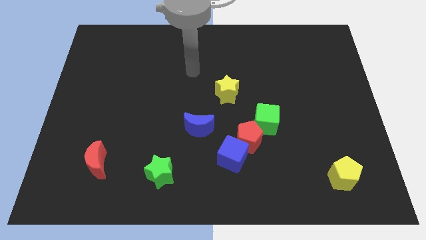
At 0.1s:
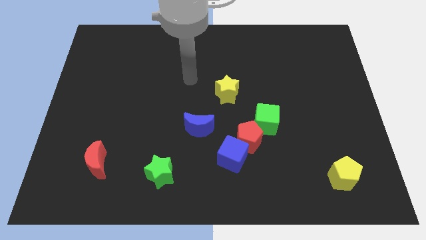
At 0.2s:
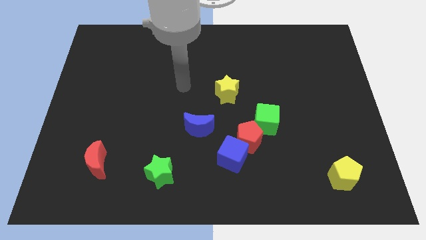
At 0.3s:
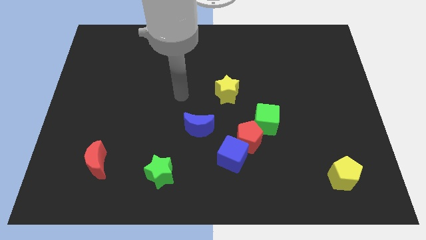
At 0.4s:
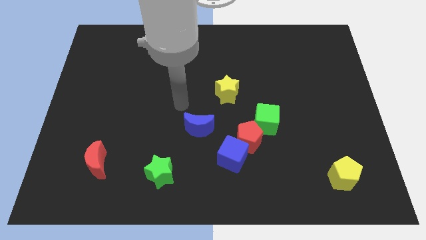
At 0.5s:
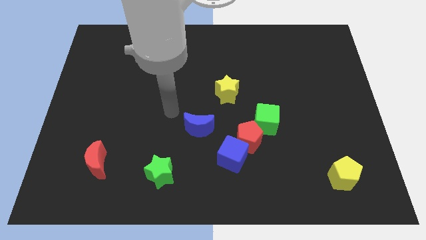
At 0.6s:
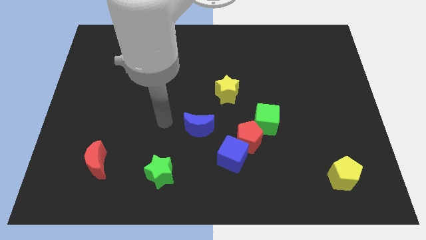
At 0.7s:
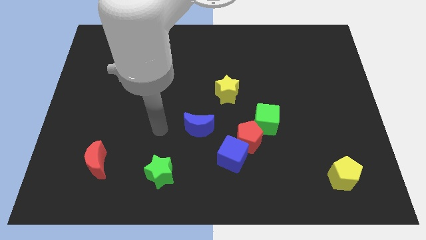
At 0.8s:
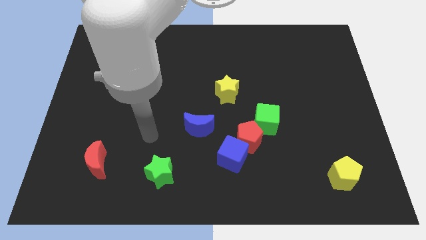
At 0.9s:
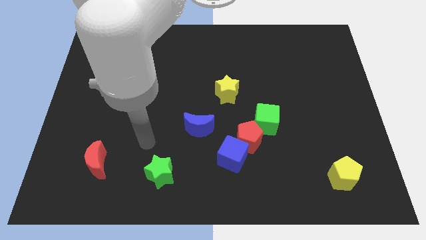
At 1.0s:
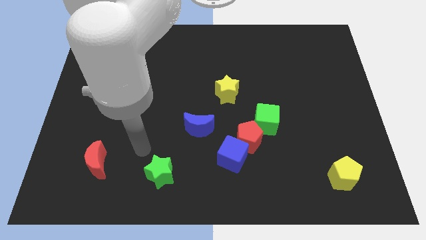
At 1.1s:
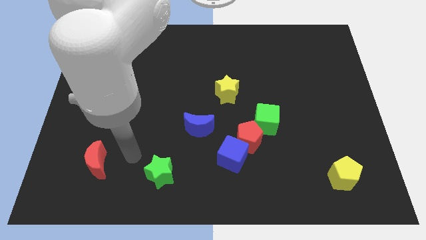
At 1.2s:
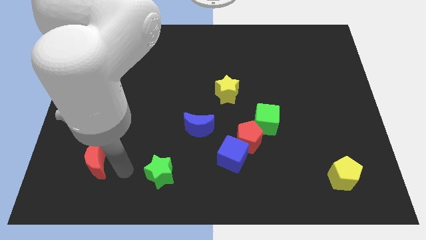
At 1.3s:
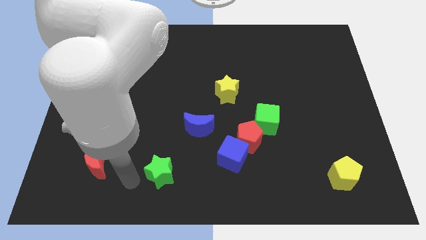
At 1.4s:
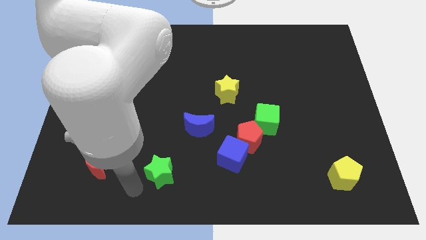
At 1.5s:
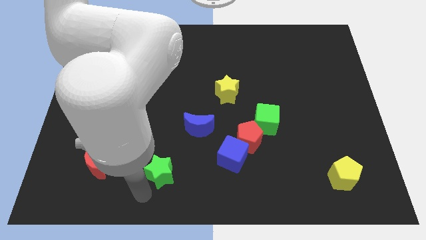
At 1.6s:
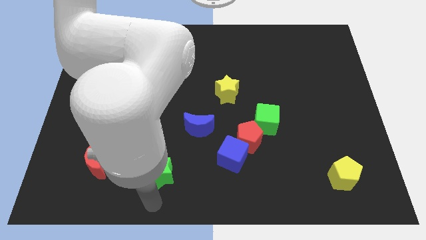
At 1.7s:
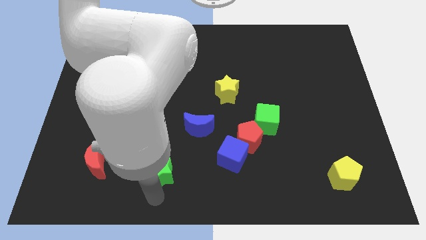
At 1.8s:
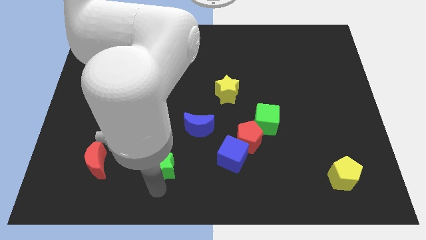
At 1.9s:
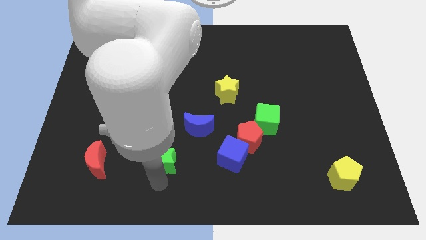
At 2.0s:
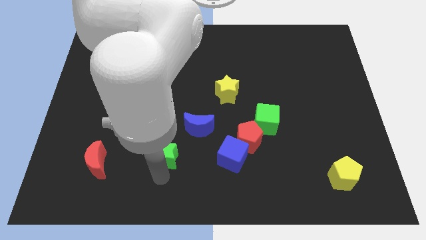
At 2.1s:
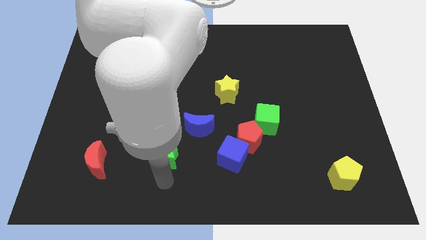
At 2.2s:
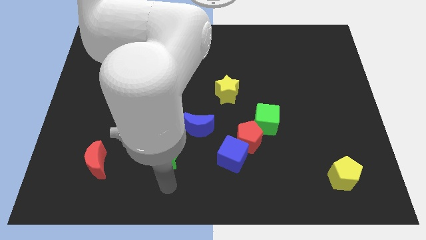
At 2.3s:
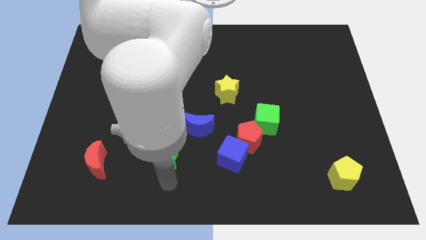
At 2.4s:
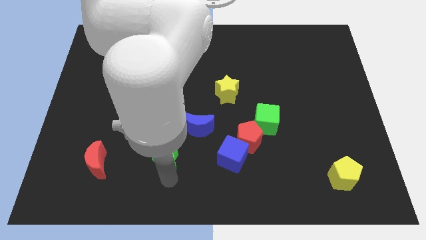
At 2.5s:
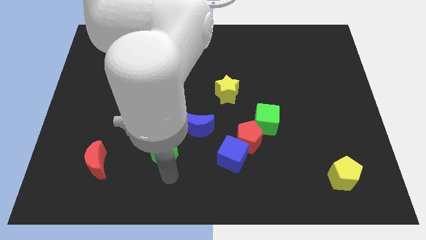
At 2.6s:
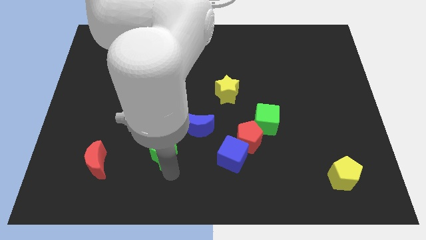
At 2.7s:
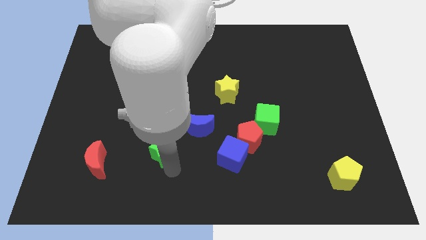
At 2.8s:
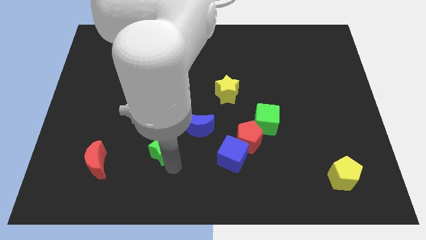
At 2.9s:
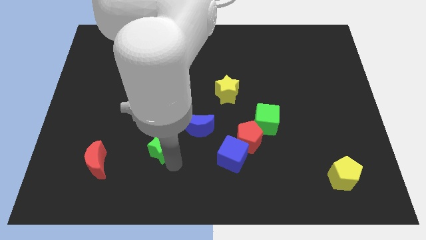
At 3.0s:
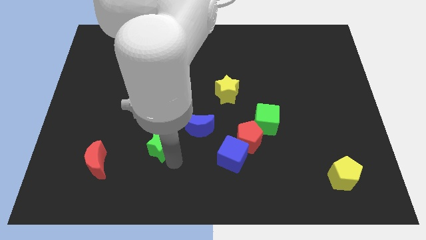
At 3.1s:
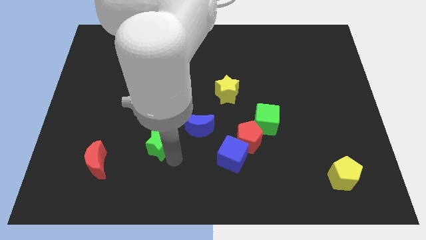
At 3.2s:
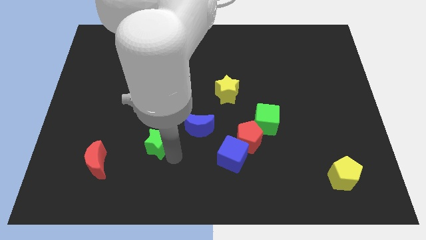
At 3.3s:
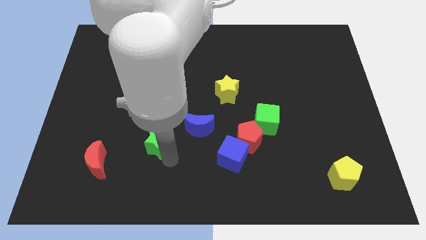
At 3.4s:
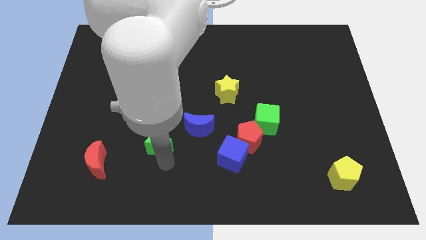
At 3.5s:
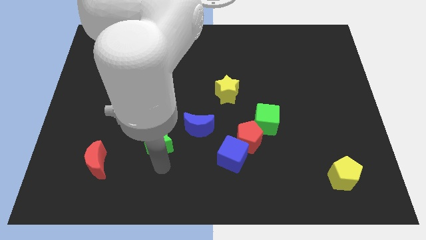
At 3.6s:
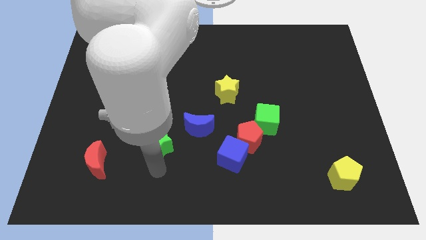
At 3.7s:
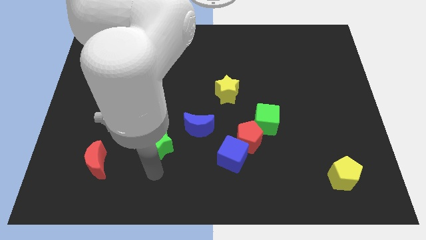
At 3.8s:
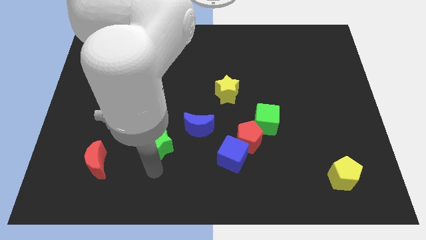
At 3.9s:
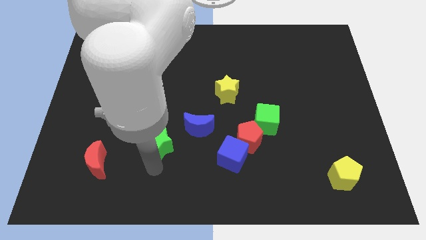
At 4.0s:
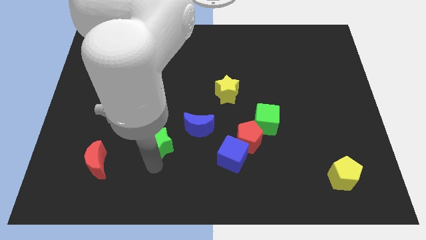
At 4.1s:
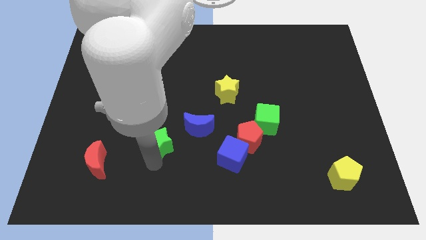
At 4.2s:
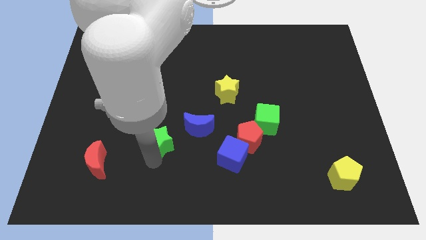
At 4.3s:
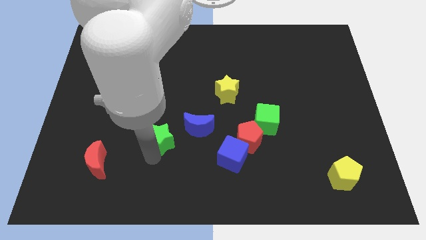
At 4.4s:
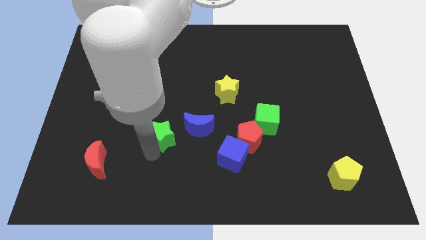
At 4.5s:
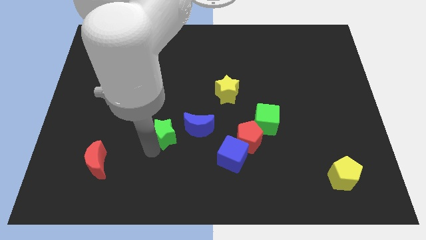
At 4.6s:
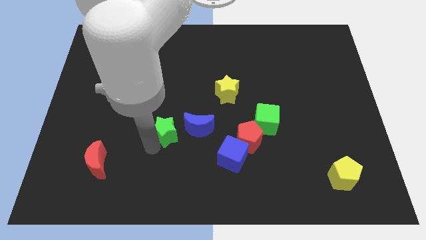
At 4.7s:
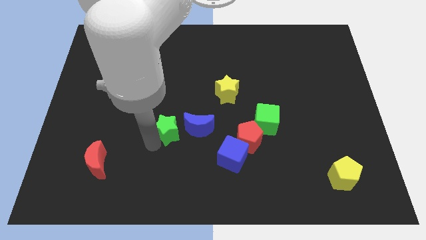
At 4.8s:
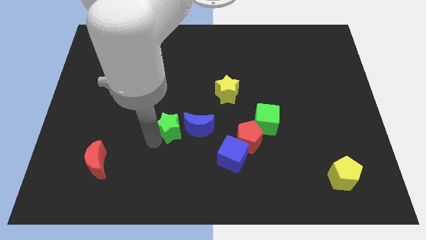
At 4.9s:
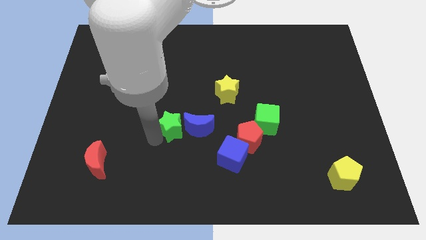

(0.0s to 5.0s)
push the green star to the middle of the board

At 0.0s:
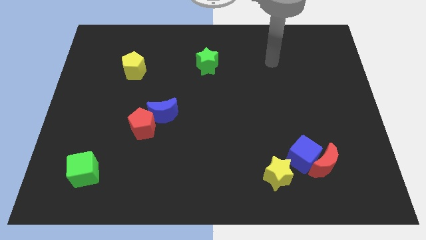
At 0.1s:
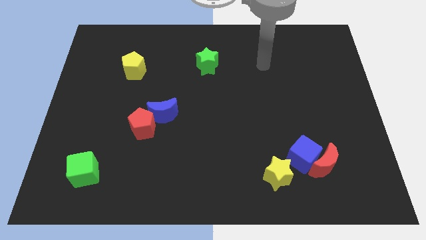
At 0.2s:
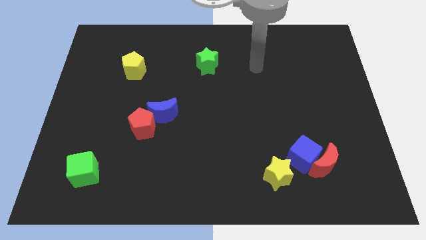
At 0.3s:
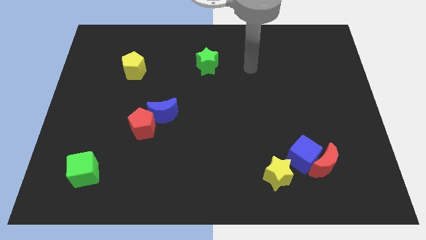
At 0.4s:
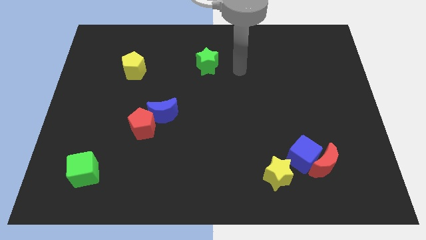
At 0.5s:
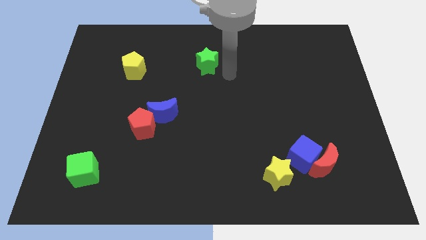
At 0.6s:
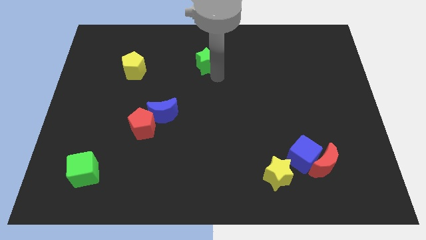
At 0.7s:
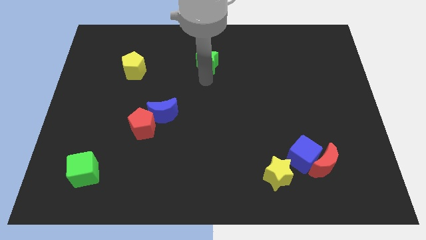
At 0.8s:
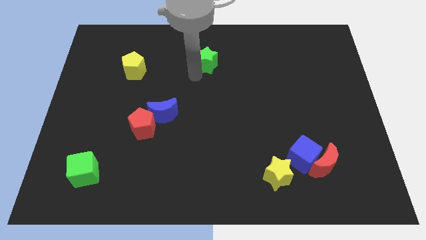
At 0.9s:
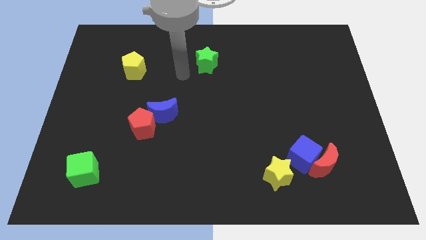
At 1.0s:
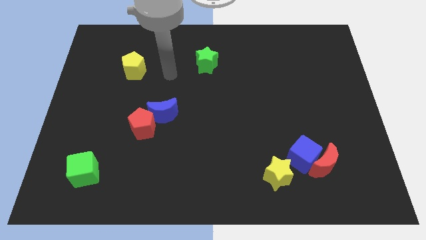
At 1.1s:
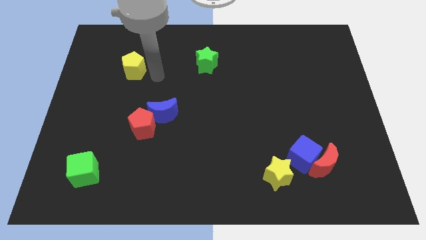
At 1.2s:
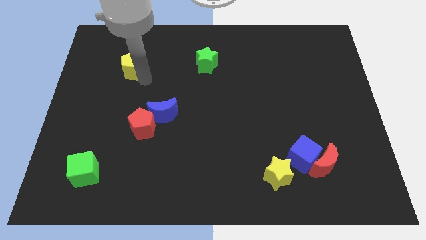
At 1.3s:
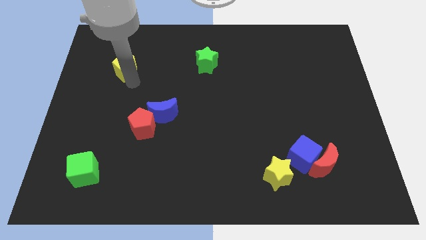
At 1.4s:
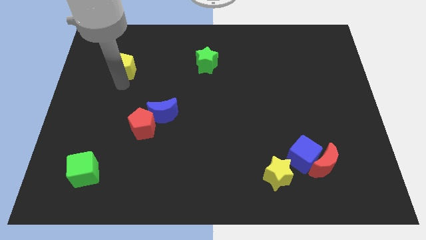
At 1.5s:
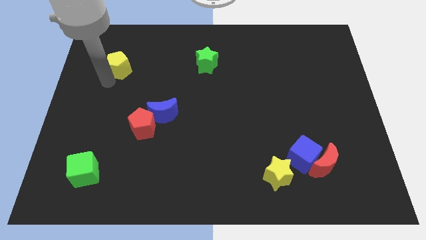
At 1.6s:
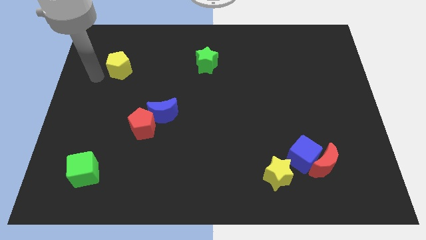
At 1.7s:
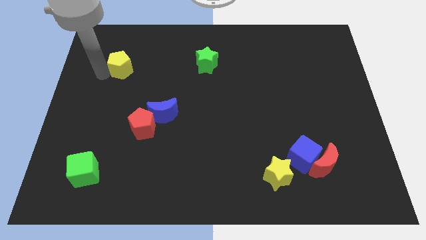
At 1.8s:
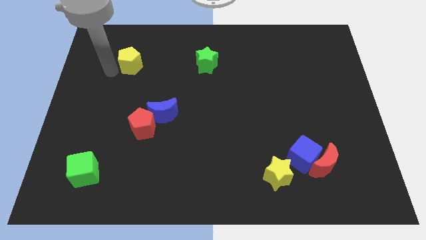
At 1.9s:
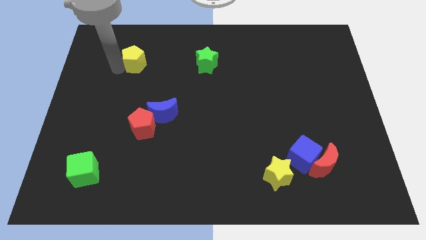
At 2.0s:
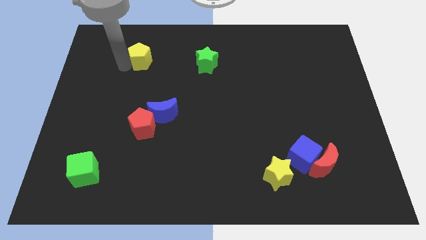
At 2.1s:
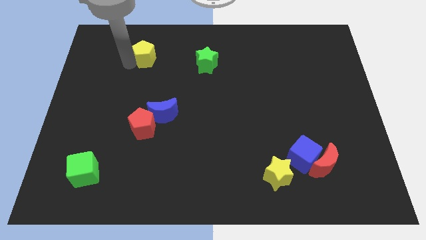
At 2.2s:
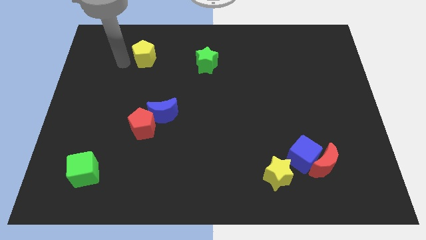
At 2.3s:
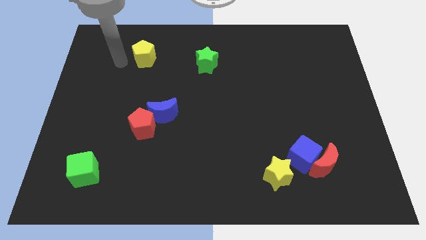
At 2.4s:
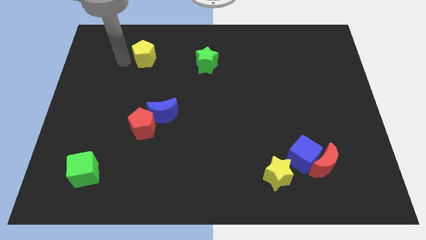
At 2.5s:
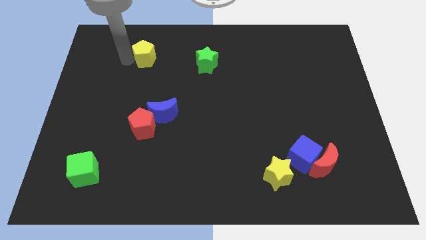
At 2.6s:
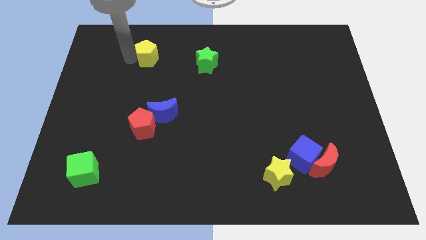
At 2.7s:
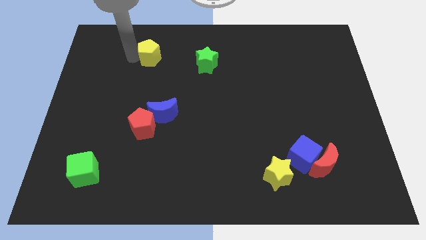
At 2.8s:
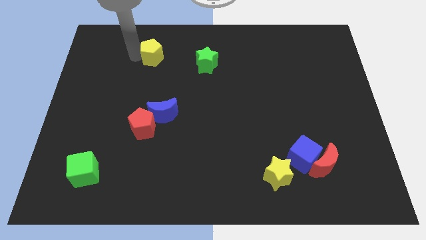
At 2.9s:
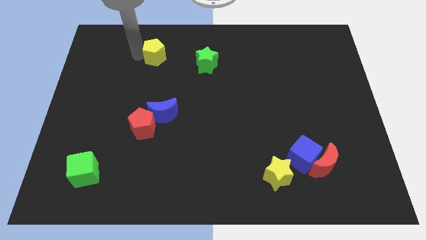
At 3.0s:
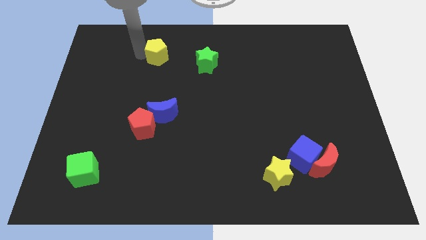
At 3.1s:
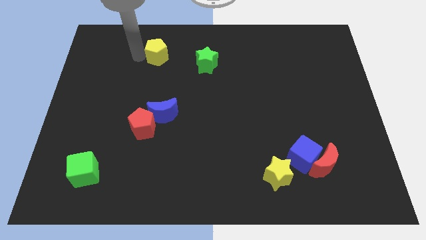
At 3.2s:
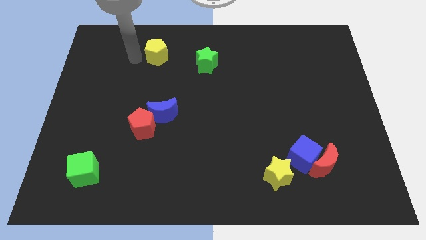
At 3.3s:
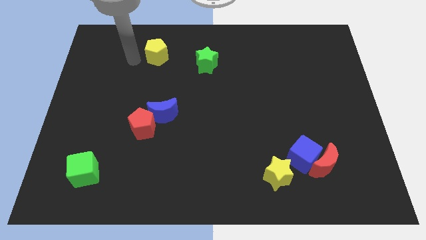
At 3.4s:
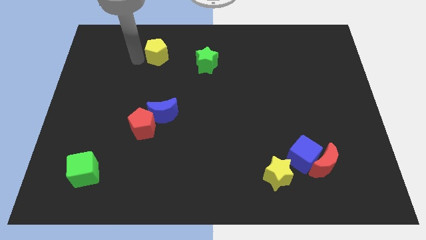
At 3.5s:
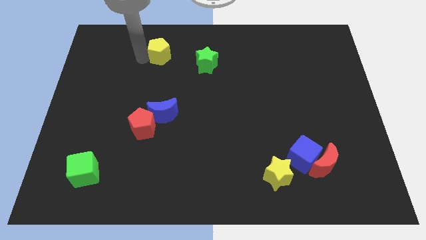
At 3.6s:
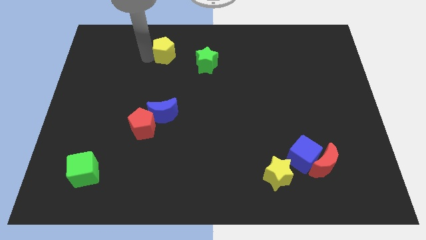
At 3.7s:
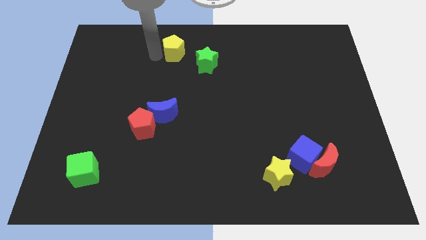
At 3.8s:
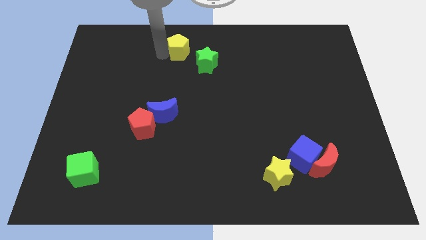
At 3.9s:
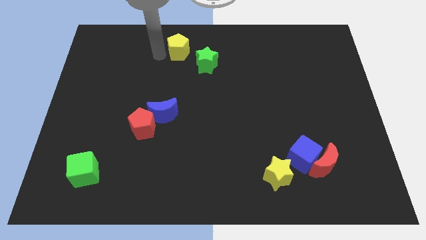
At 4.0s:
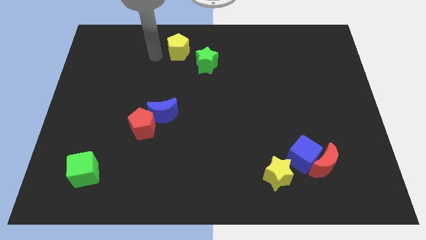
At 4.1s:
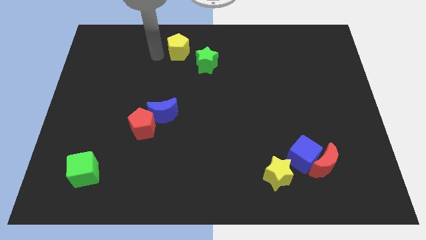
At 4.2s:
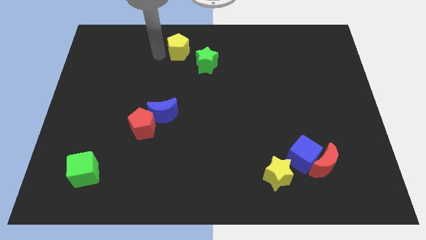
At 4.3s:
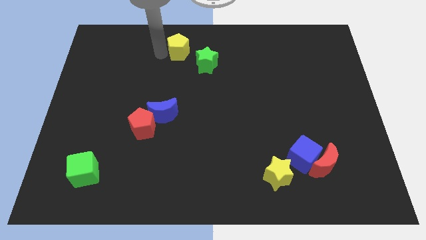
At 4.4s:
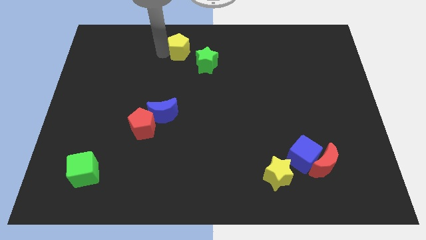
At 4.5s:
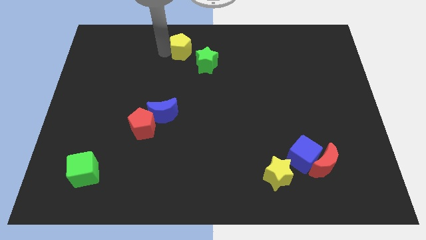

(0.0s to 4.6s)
put the yellow pentagon to the top
